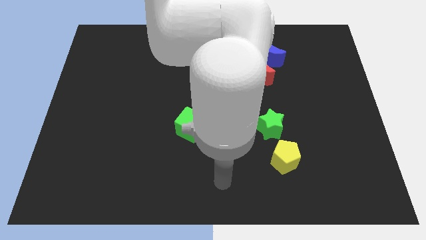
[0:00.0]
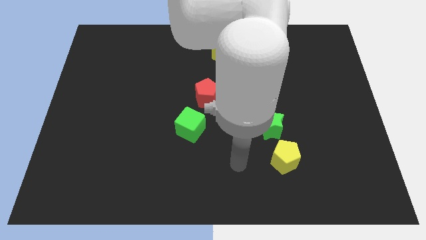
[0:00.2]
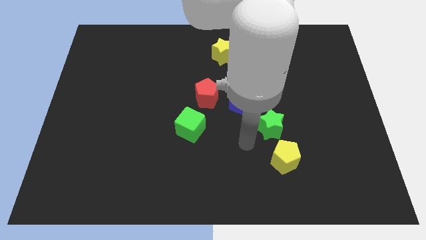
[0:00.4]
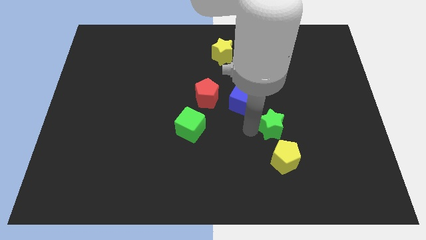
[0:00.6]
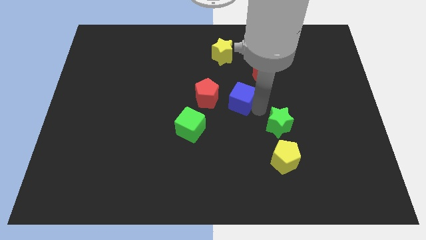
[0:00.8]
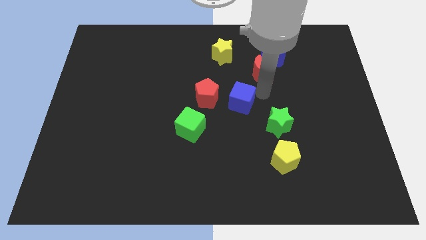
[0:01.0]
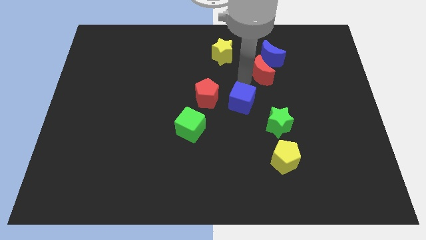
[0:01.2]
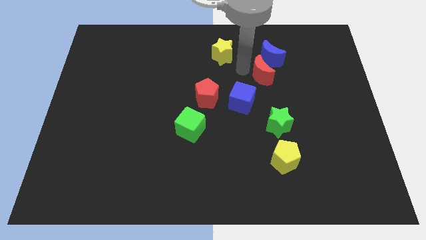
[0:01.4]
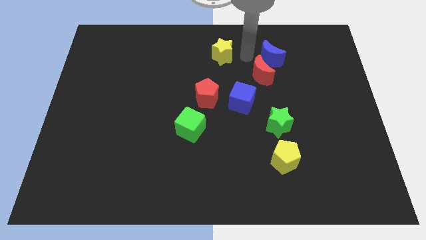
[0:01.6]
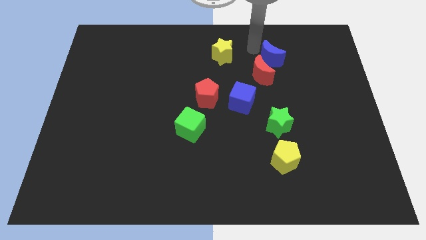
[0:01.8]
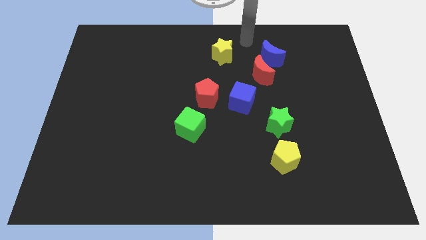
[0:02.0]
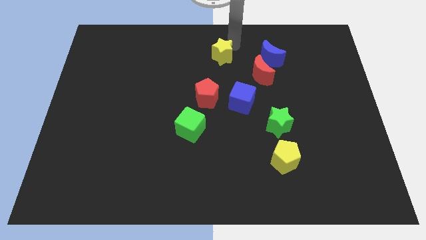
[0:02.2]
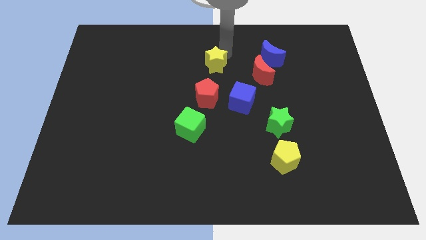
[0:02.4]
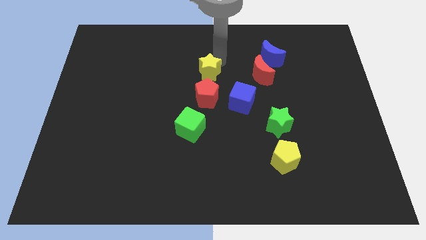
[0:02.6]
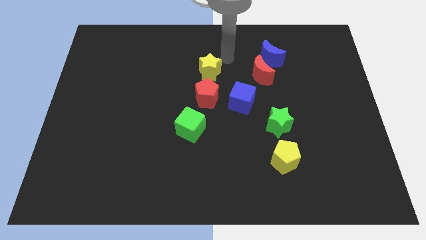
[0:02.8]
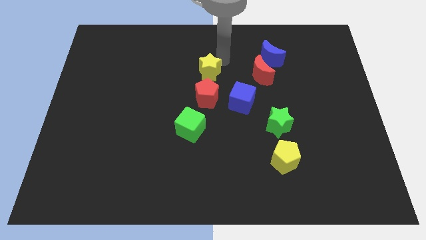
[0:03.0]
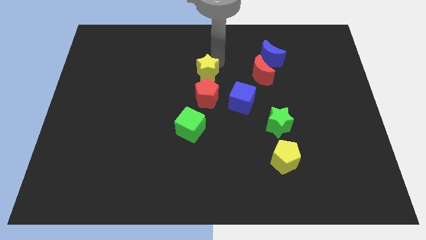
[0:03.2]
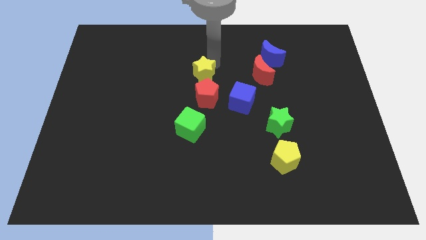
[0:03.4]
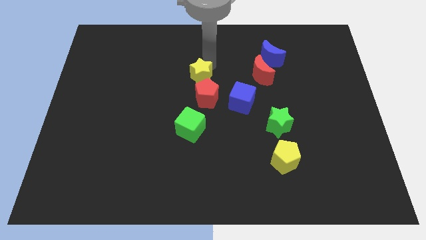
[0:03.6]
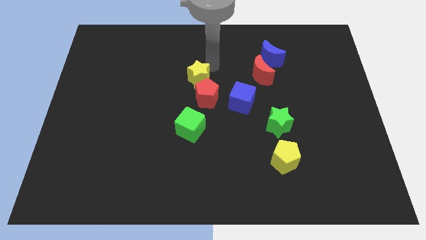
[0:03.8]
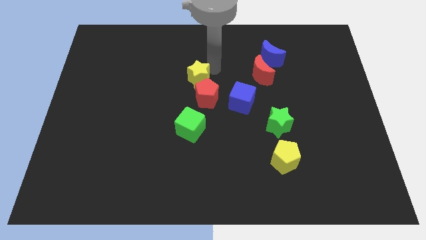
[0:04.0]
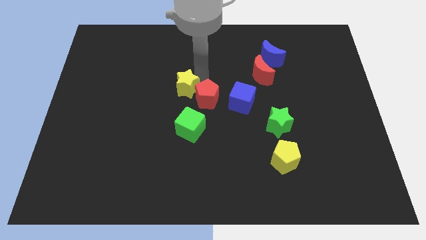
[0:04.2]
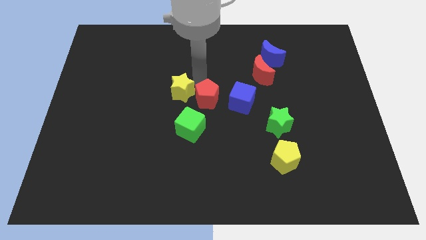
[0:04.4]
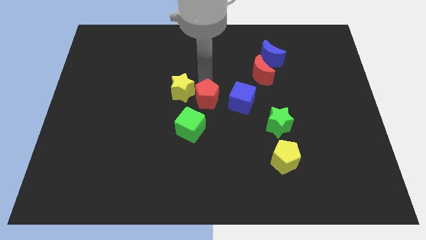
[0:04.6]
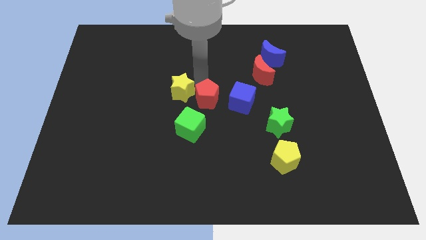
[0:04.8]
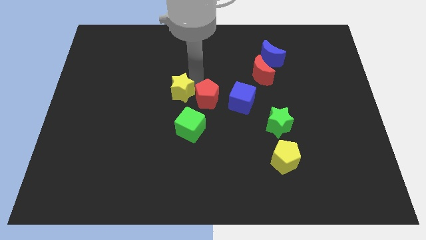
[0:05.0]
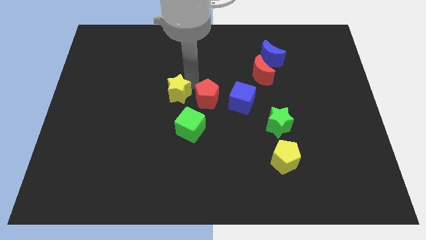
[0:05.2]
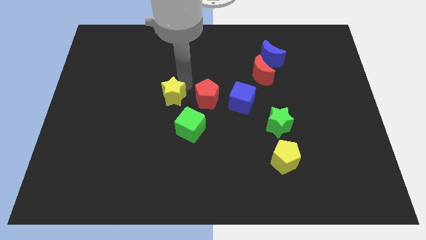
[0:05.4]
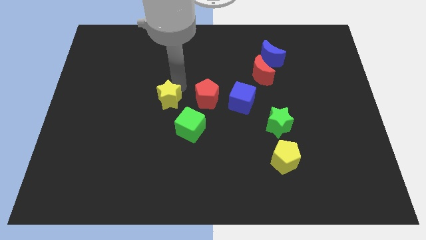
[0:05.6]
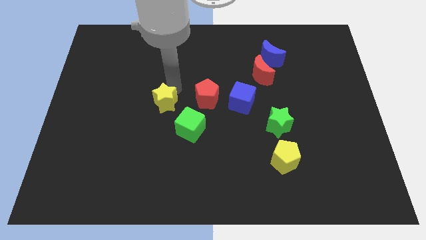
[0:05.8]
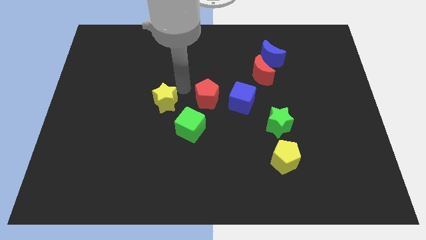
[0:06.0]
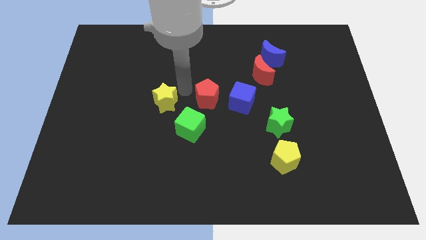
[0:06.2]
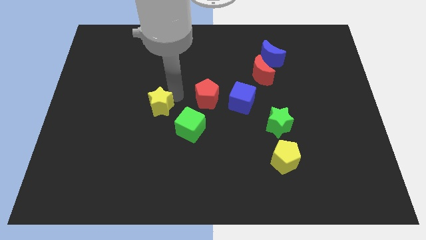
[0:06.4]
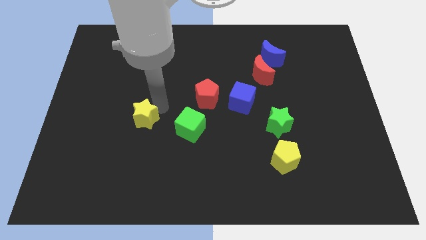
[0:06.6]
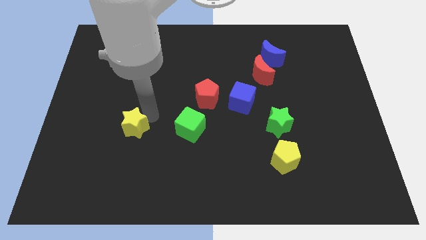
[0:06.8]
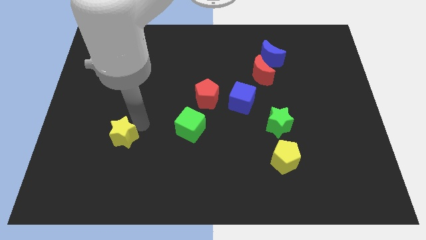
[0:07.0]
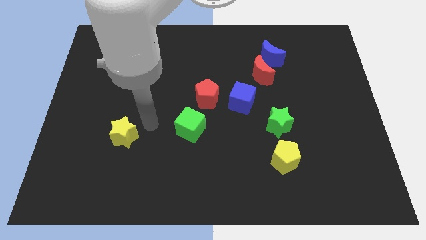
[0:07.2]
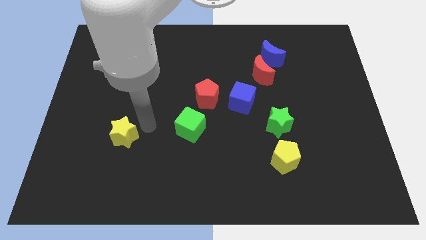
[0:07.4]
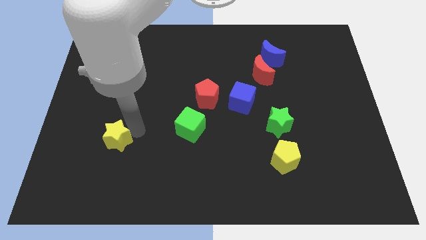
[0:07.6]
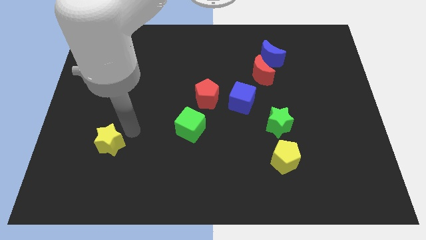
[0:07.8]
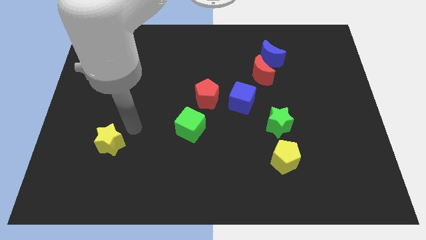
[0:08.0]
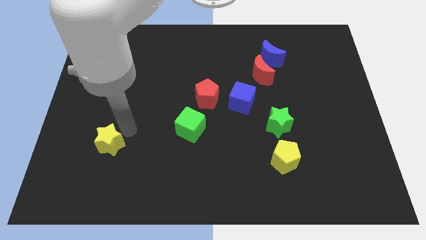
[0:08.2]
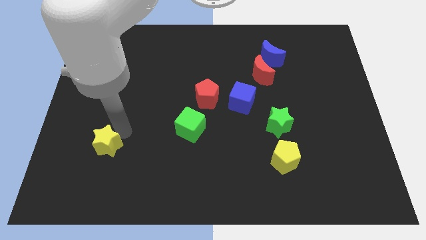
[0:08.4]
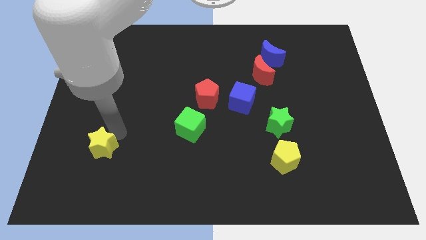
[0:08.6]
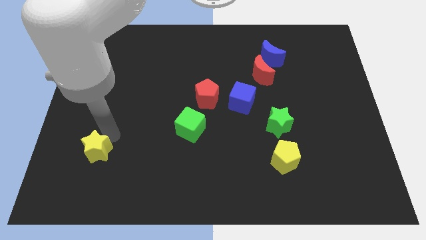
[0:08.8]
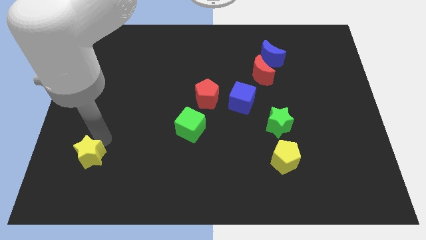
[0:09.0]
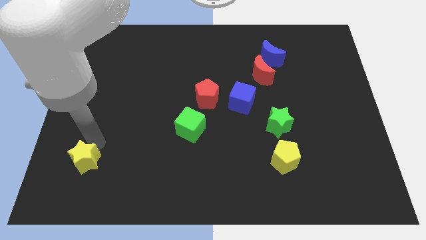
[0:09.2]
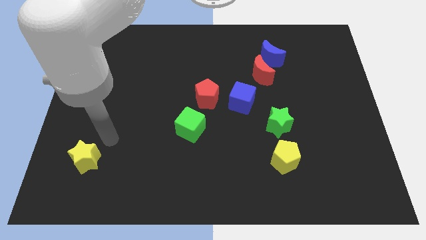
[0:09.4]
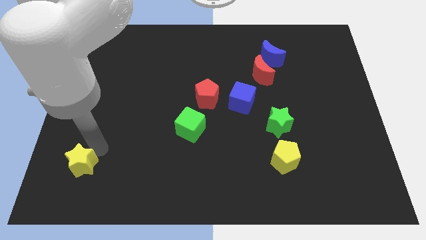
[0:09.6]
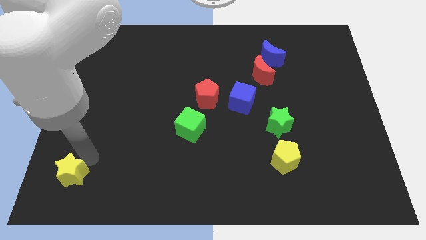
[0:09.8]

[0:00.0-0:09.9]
move the yellow star to the bottom left

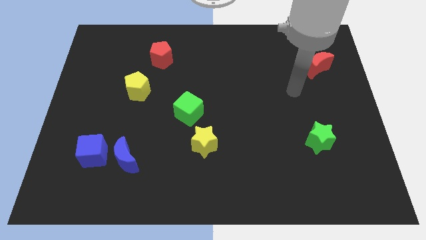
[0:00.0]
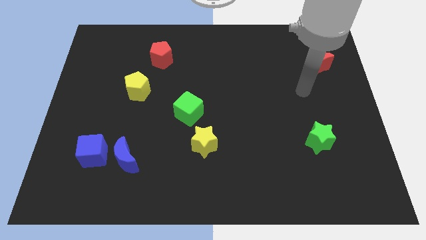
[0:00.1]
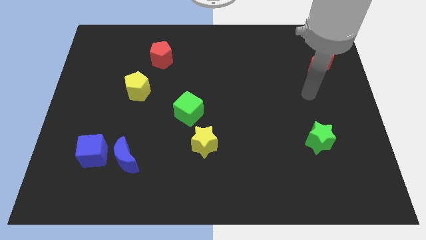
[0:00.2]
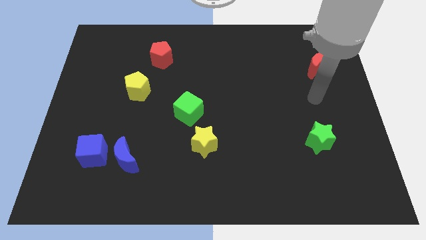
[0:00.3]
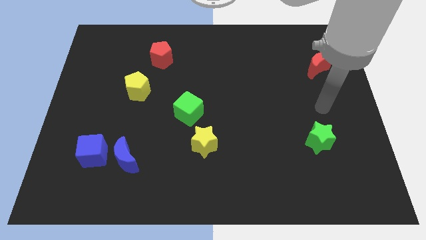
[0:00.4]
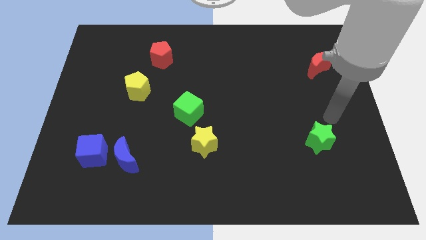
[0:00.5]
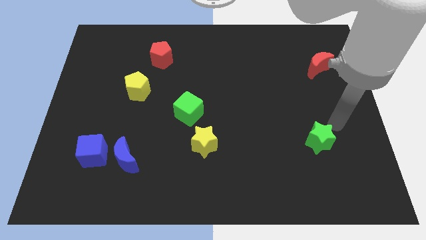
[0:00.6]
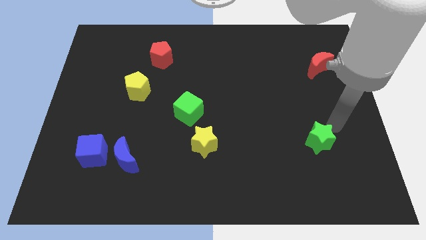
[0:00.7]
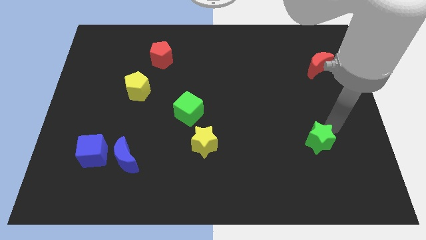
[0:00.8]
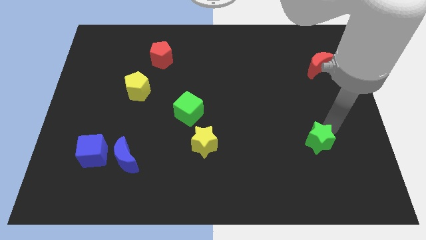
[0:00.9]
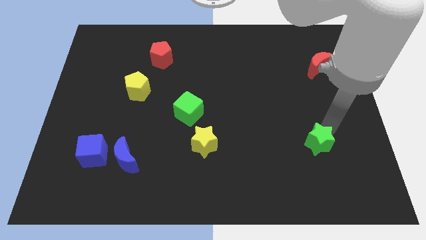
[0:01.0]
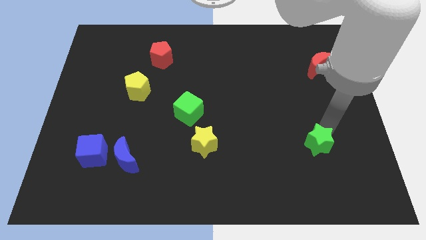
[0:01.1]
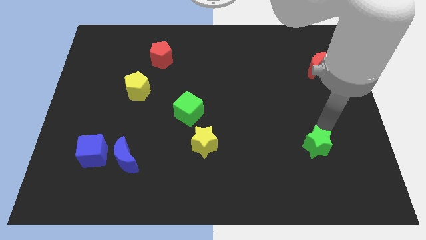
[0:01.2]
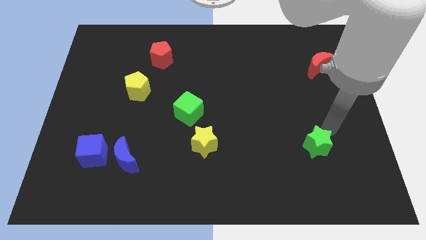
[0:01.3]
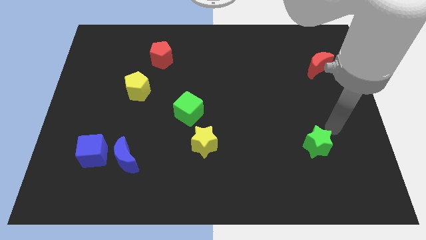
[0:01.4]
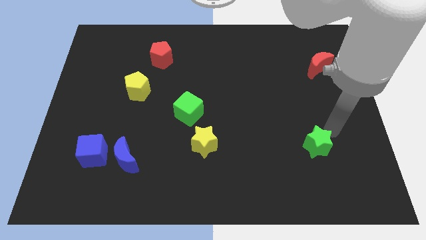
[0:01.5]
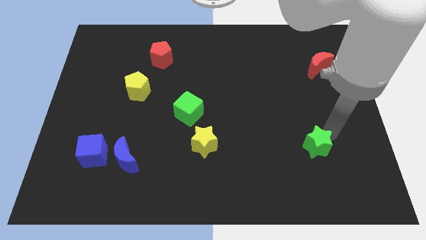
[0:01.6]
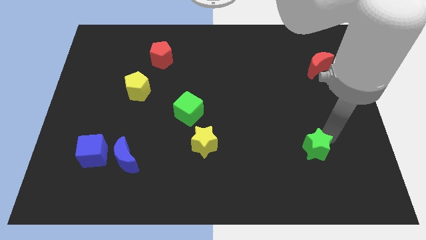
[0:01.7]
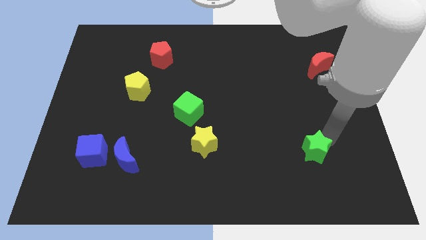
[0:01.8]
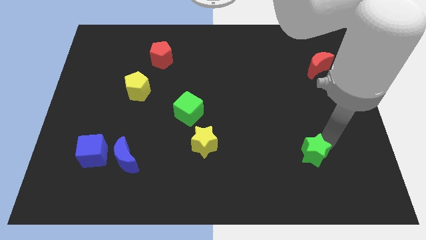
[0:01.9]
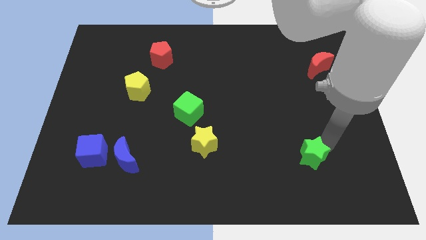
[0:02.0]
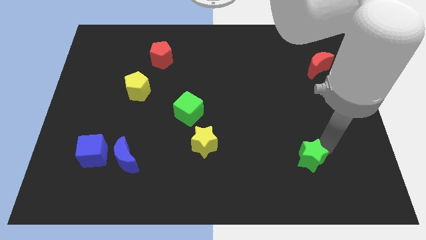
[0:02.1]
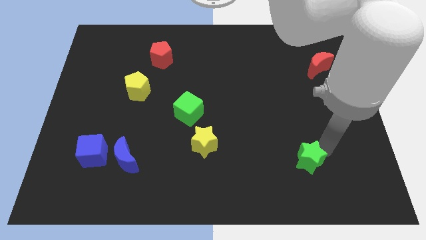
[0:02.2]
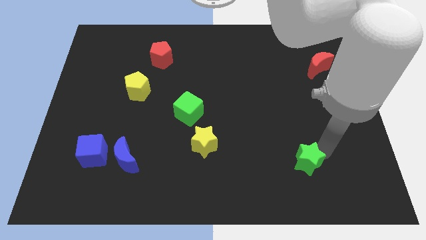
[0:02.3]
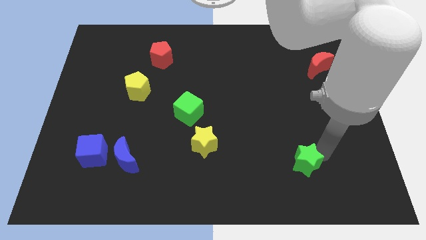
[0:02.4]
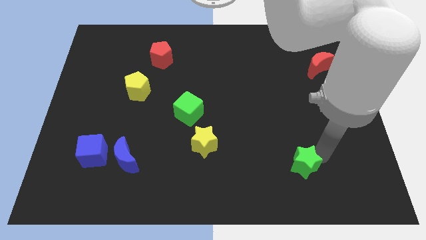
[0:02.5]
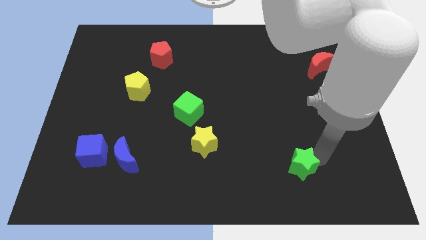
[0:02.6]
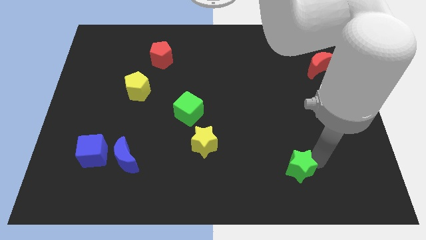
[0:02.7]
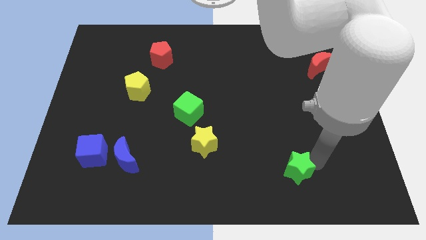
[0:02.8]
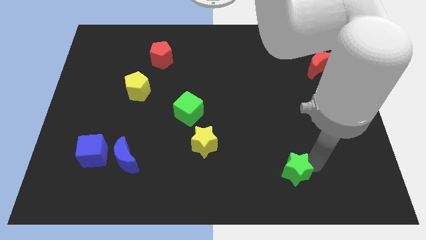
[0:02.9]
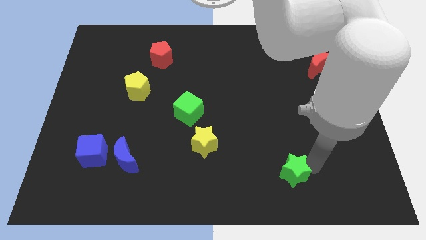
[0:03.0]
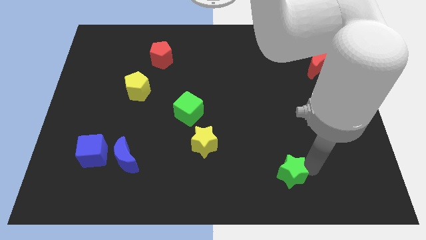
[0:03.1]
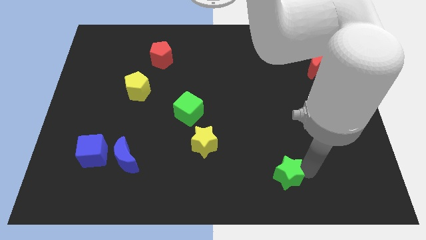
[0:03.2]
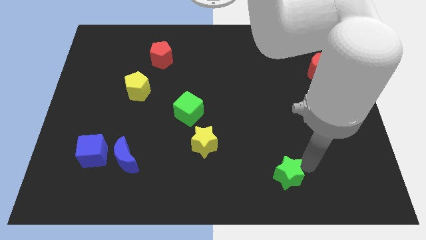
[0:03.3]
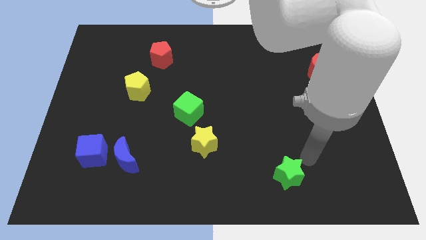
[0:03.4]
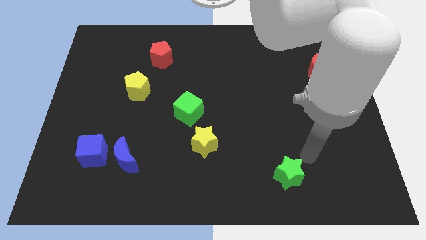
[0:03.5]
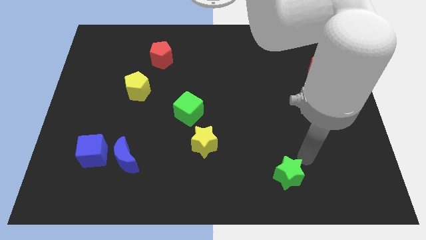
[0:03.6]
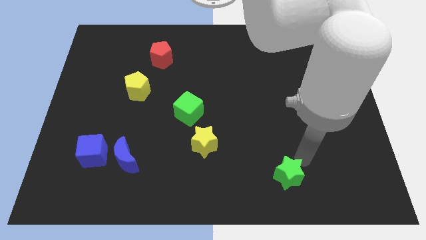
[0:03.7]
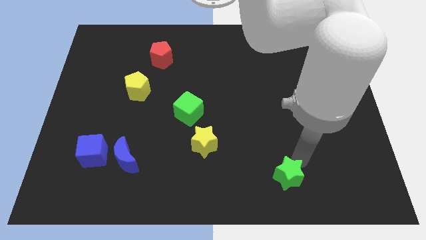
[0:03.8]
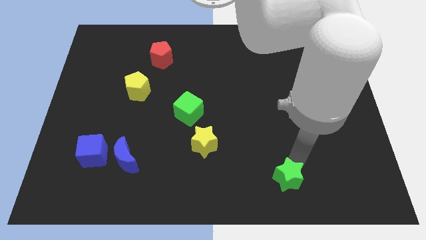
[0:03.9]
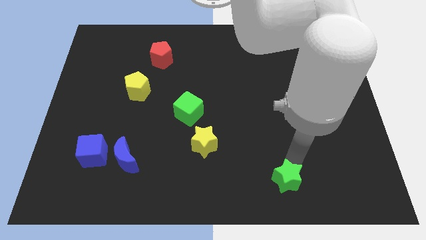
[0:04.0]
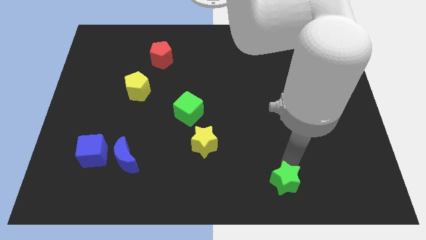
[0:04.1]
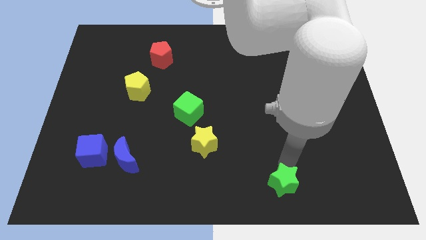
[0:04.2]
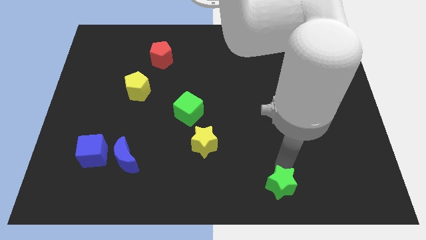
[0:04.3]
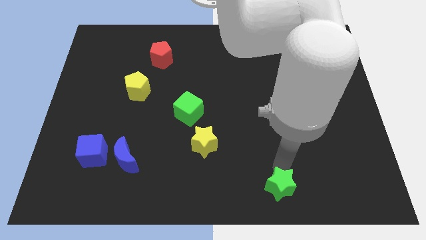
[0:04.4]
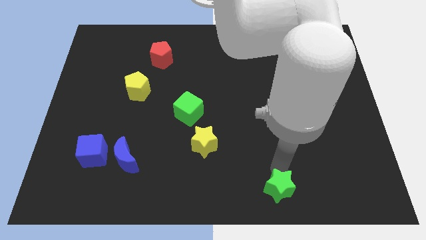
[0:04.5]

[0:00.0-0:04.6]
push the green star to the bottom
